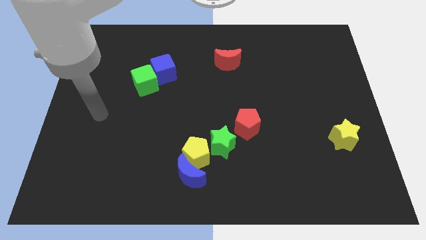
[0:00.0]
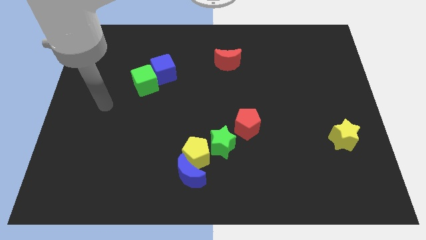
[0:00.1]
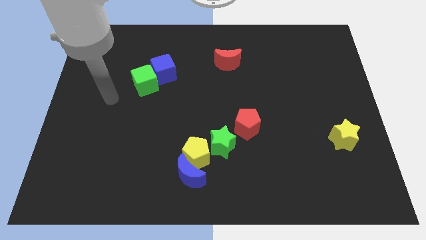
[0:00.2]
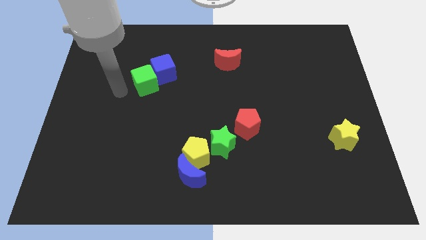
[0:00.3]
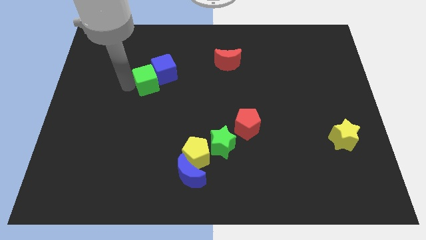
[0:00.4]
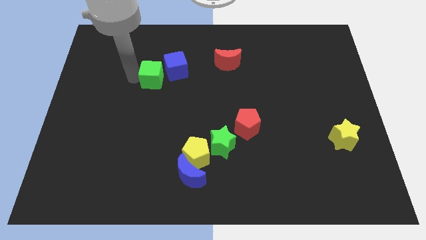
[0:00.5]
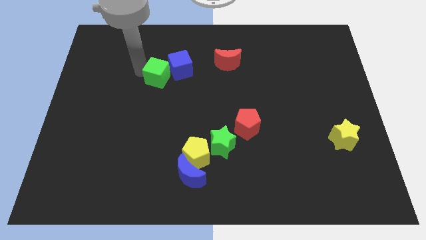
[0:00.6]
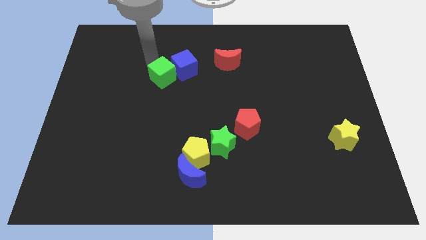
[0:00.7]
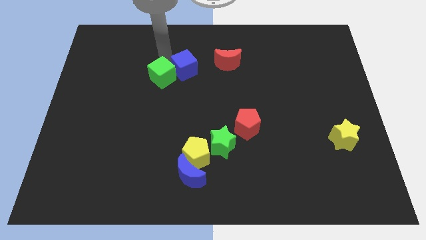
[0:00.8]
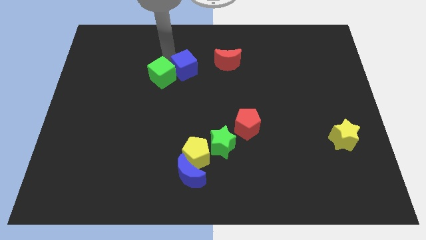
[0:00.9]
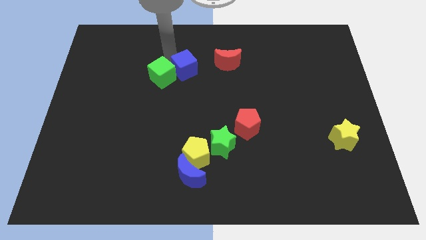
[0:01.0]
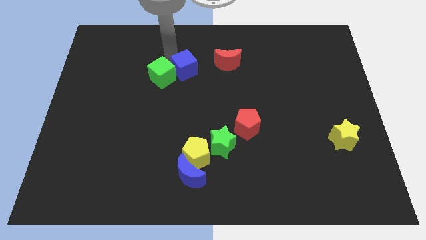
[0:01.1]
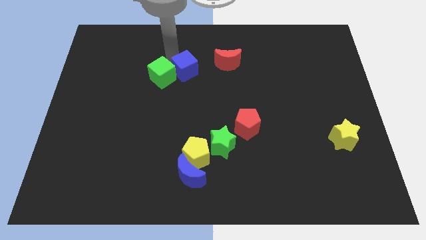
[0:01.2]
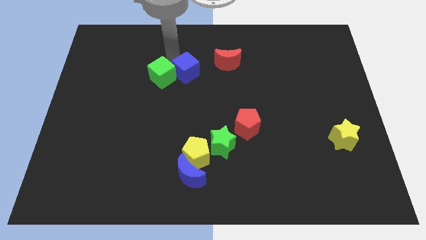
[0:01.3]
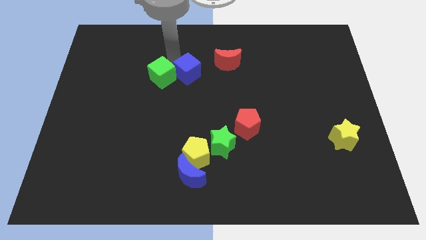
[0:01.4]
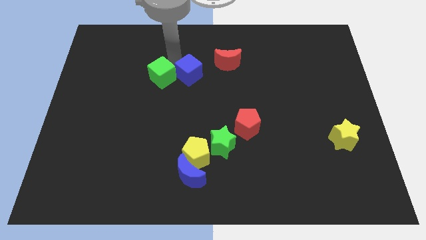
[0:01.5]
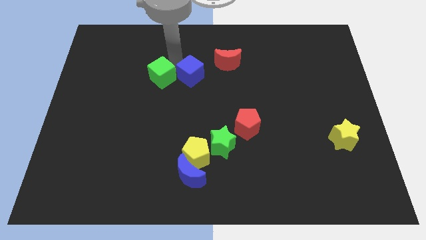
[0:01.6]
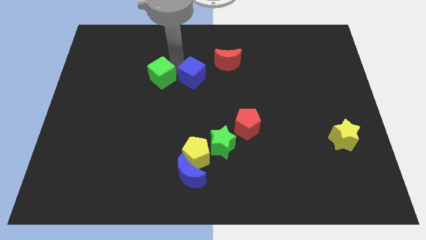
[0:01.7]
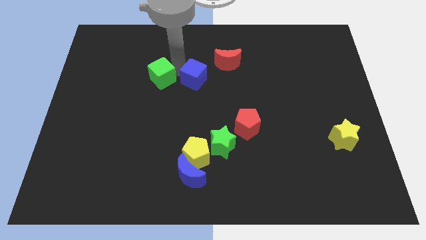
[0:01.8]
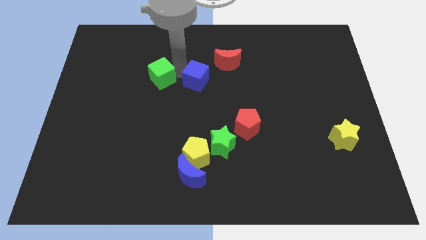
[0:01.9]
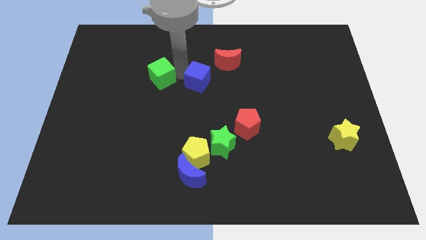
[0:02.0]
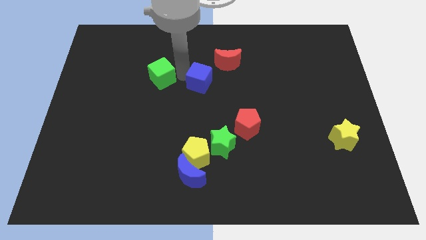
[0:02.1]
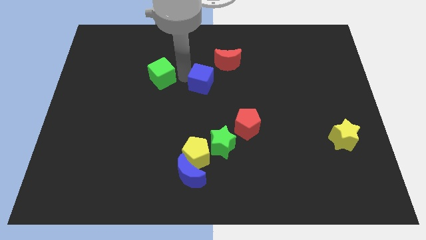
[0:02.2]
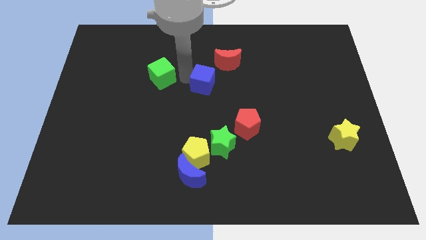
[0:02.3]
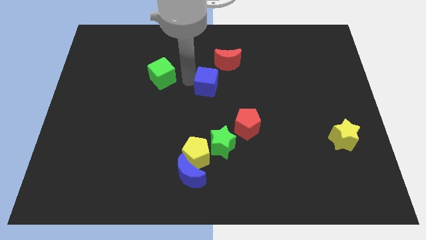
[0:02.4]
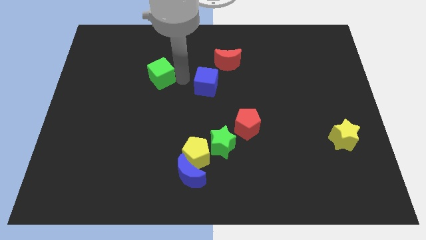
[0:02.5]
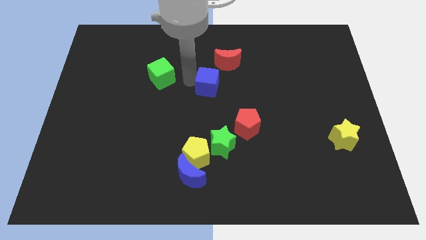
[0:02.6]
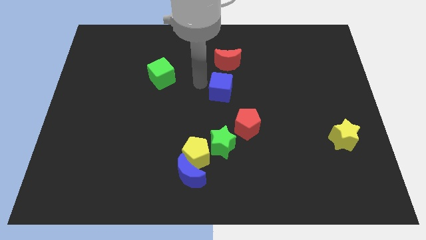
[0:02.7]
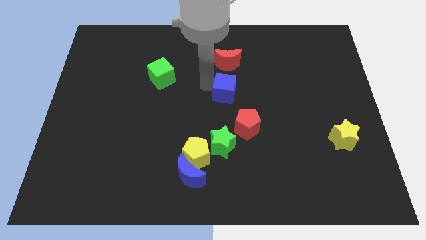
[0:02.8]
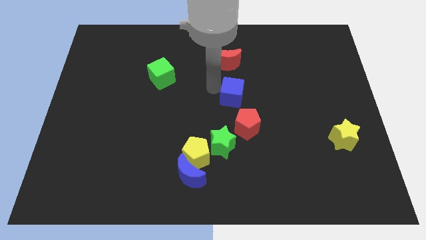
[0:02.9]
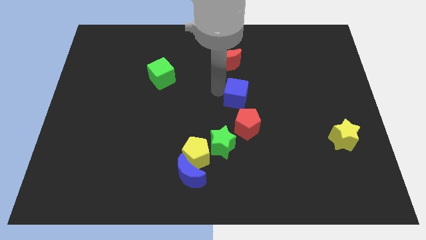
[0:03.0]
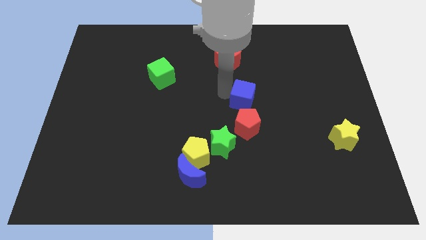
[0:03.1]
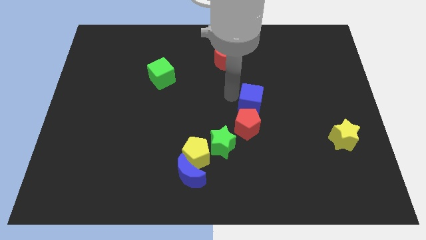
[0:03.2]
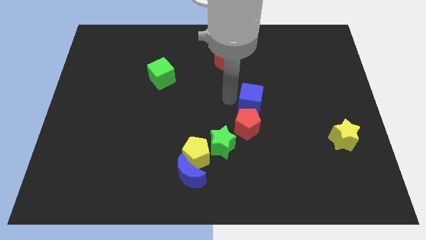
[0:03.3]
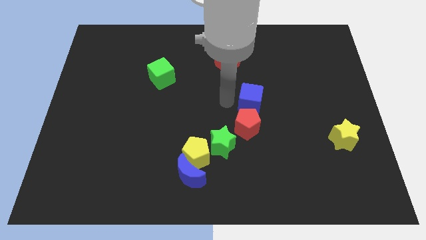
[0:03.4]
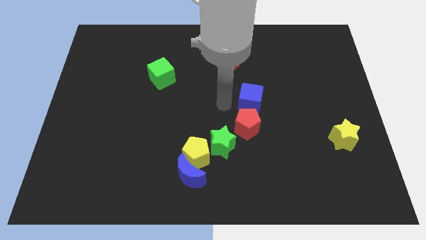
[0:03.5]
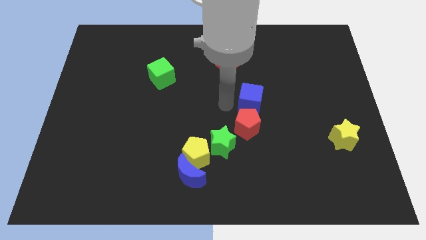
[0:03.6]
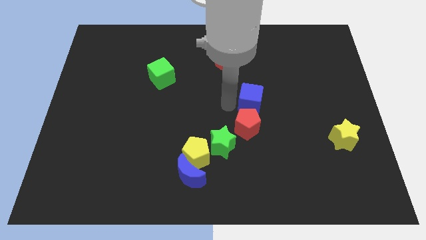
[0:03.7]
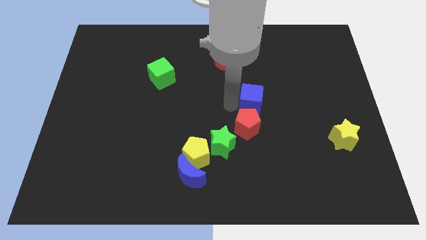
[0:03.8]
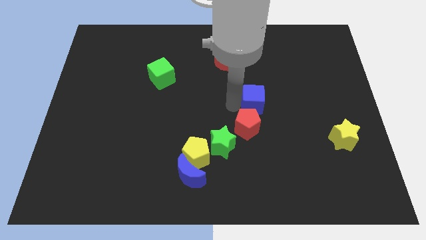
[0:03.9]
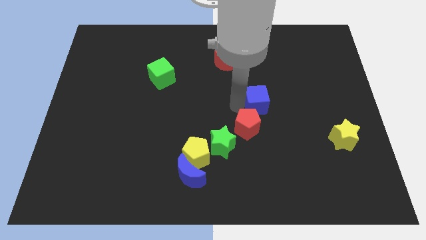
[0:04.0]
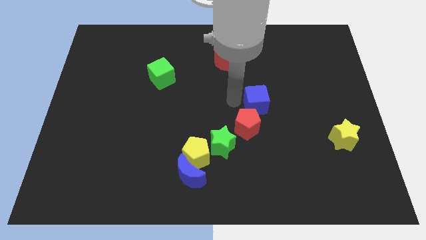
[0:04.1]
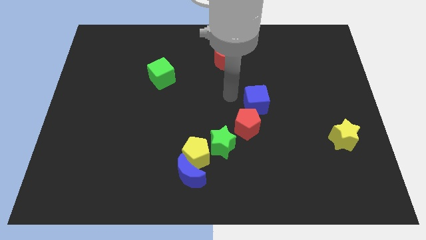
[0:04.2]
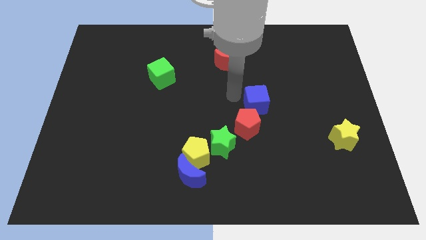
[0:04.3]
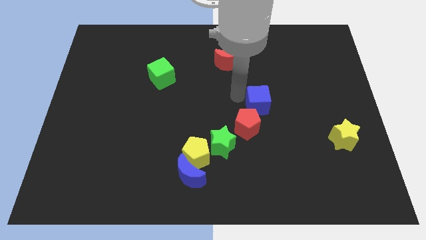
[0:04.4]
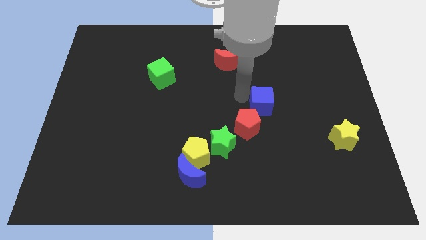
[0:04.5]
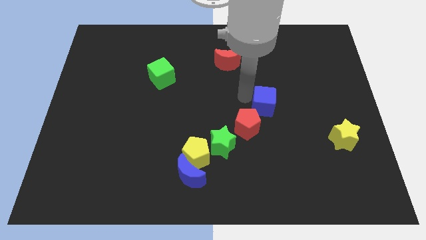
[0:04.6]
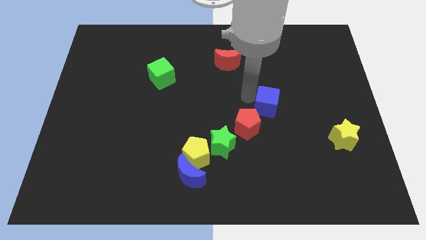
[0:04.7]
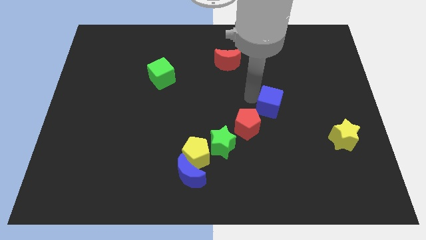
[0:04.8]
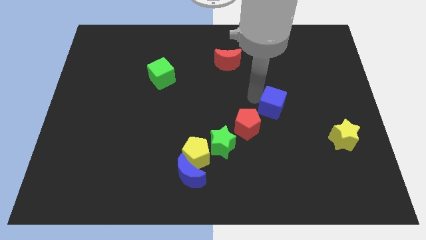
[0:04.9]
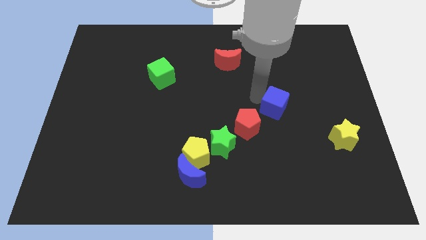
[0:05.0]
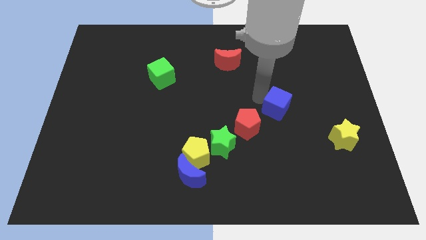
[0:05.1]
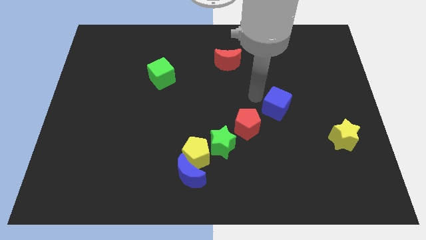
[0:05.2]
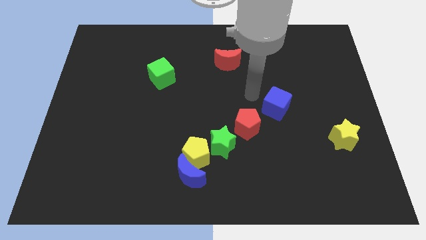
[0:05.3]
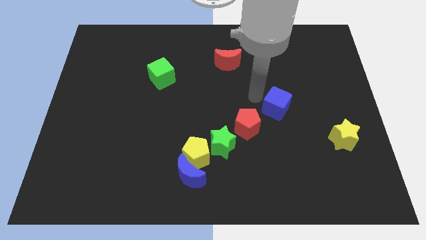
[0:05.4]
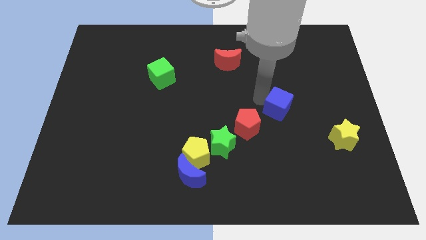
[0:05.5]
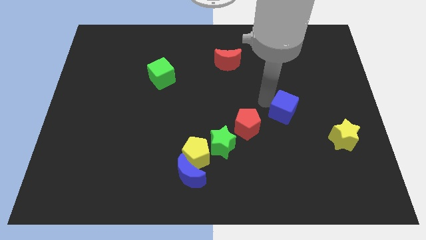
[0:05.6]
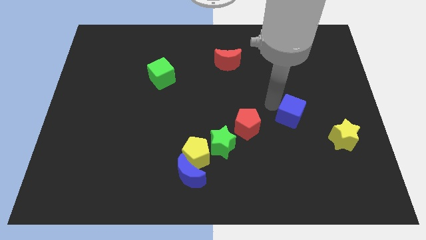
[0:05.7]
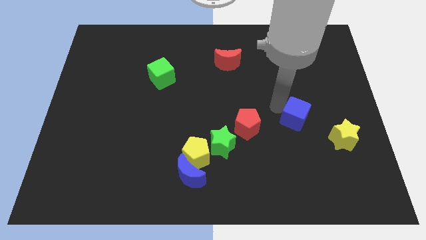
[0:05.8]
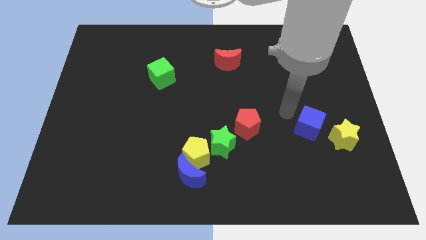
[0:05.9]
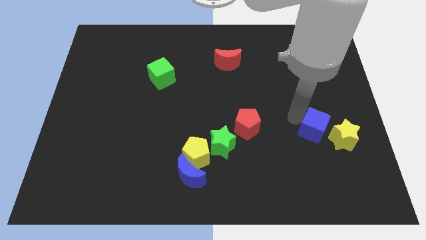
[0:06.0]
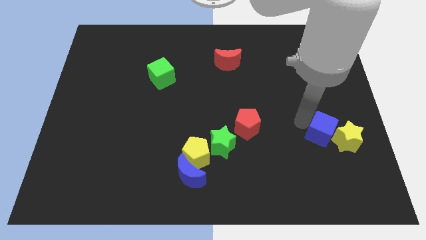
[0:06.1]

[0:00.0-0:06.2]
put the blue cube close to the yellow star

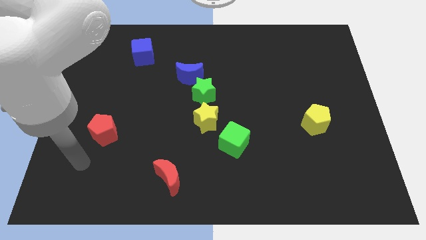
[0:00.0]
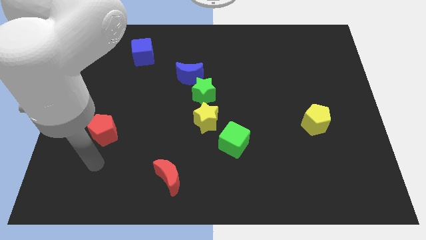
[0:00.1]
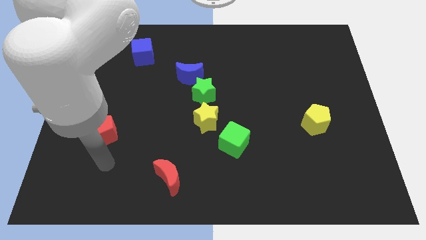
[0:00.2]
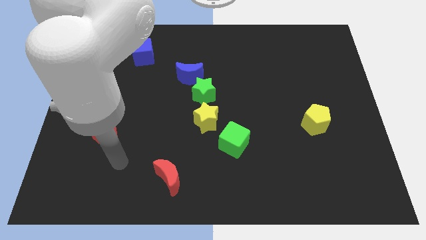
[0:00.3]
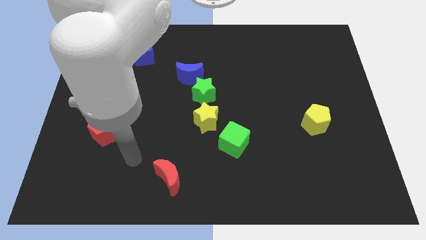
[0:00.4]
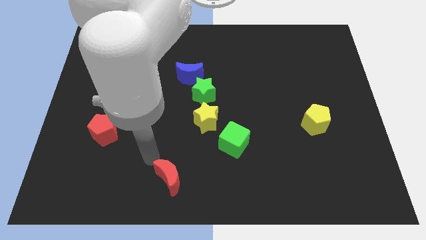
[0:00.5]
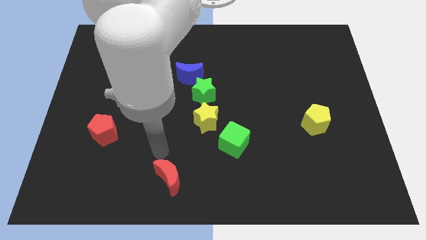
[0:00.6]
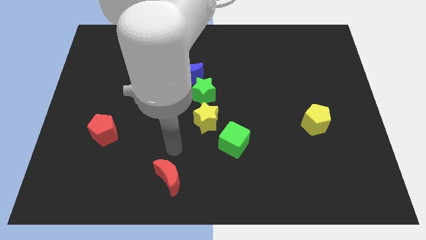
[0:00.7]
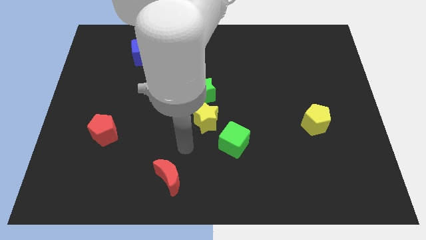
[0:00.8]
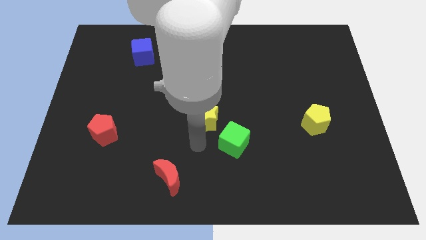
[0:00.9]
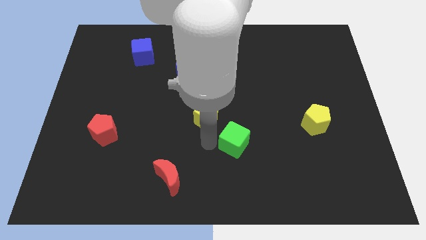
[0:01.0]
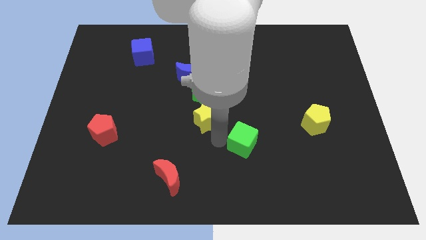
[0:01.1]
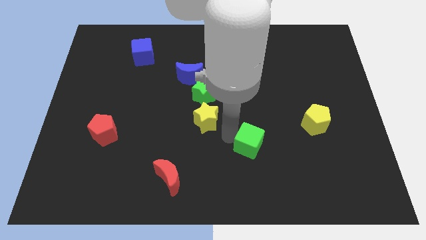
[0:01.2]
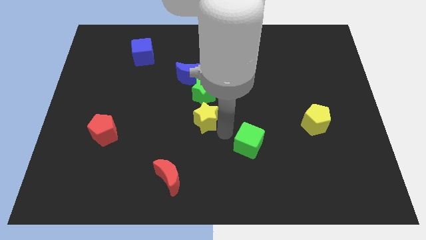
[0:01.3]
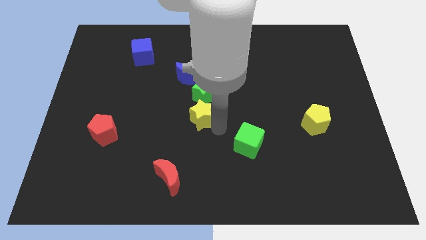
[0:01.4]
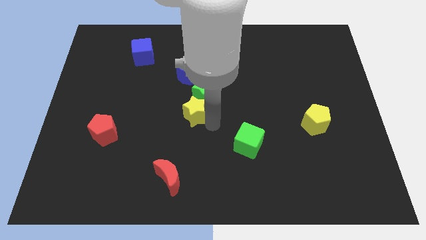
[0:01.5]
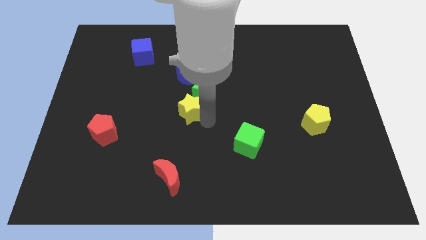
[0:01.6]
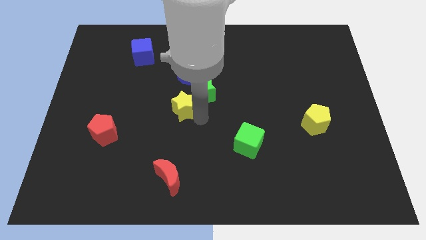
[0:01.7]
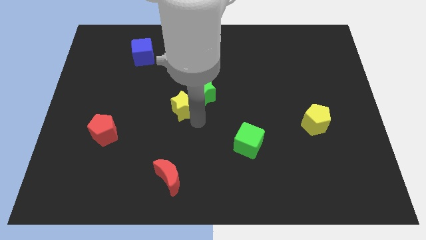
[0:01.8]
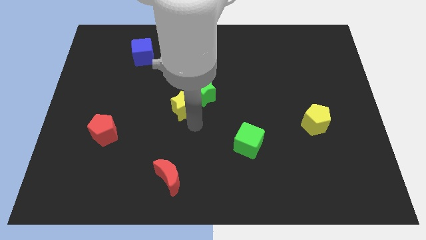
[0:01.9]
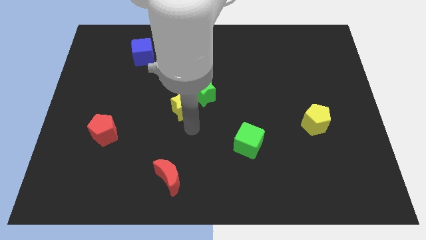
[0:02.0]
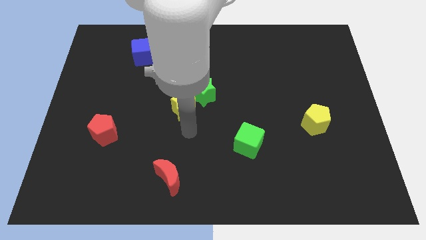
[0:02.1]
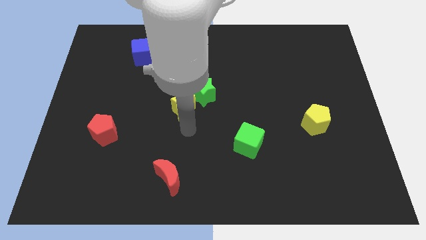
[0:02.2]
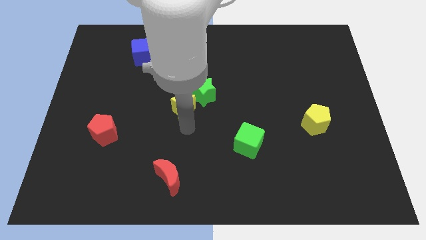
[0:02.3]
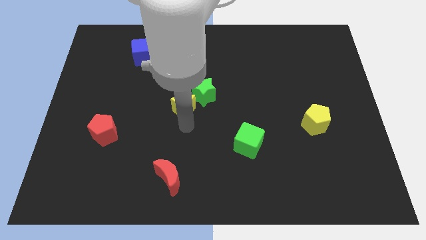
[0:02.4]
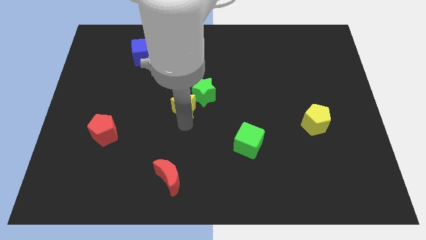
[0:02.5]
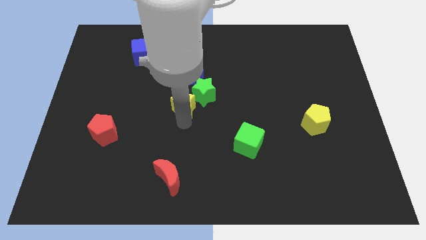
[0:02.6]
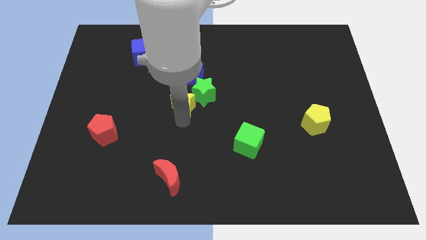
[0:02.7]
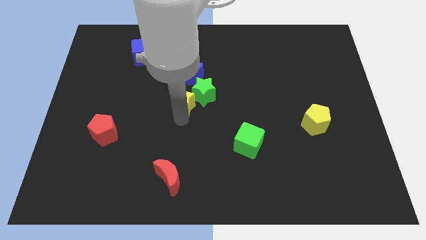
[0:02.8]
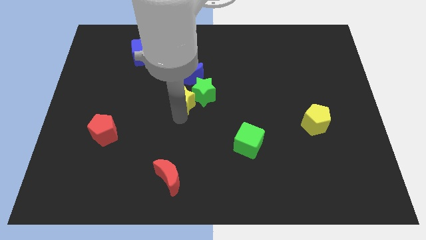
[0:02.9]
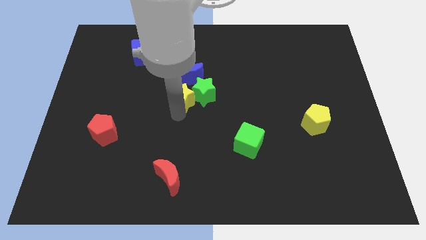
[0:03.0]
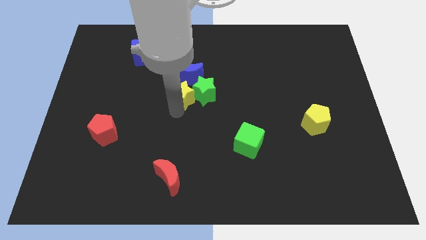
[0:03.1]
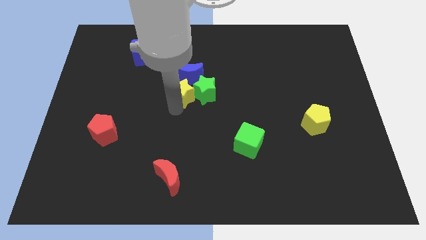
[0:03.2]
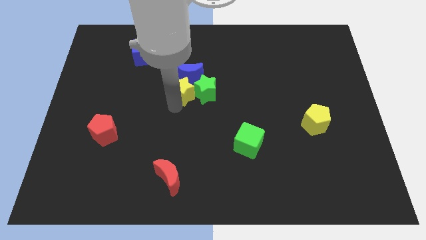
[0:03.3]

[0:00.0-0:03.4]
push the yellow star towards the blue moon
